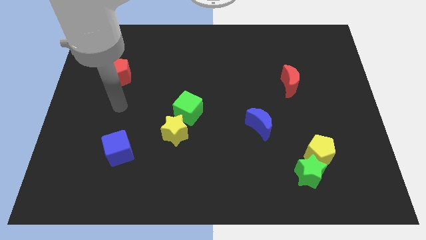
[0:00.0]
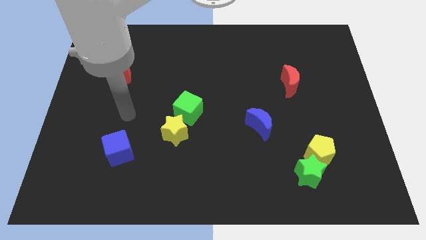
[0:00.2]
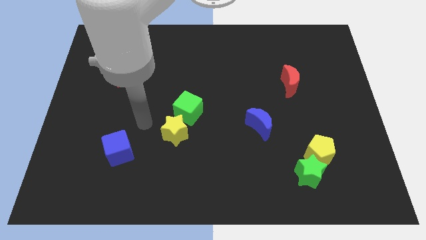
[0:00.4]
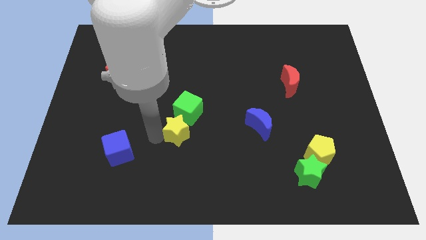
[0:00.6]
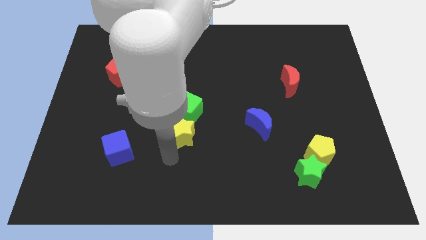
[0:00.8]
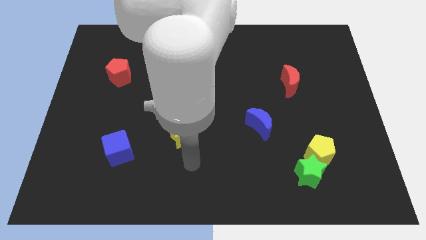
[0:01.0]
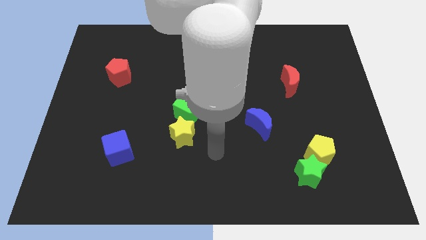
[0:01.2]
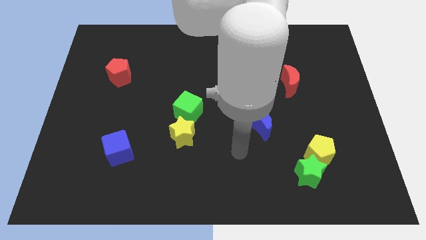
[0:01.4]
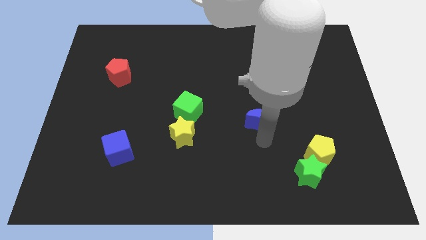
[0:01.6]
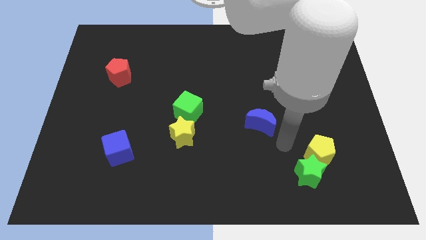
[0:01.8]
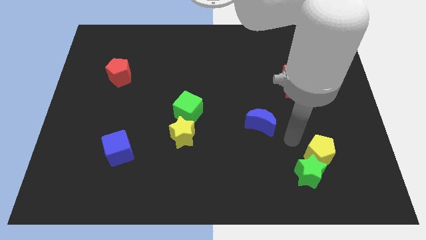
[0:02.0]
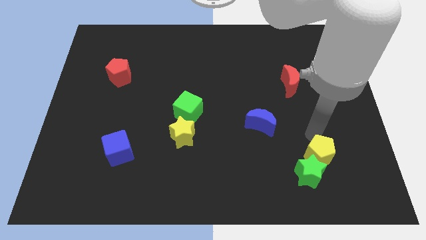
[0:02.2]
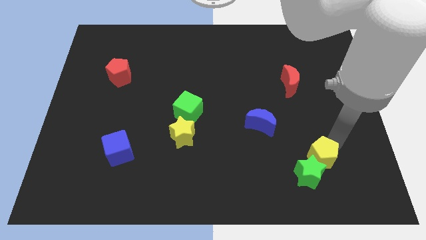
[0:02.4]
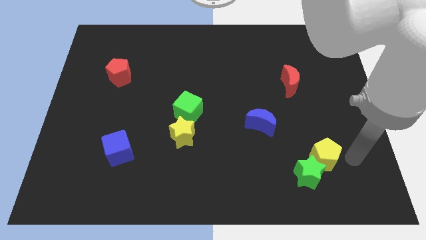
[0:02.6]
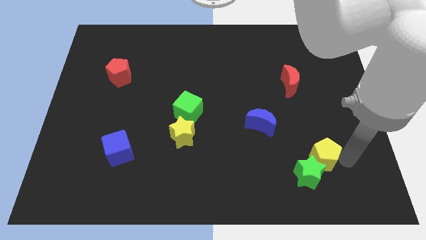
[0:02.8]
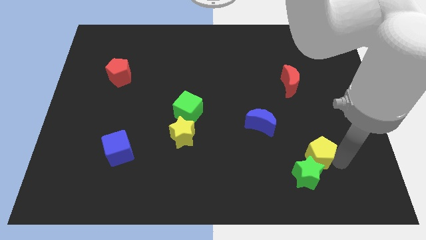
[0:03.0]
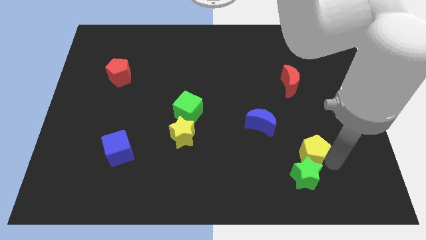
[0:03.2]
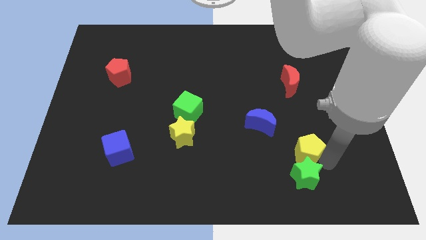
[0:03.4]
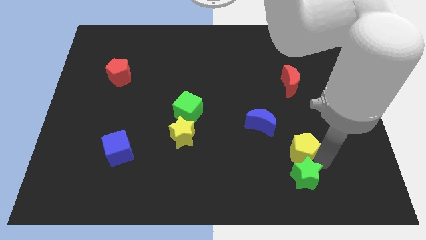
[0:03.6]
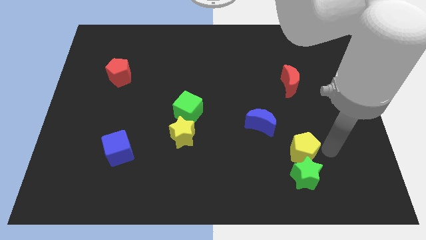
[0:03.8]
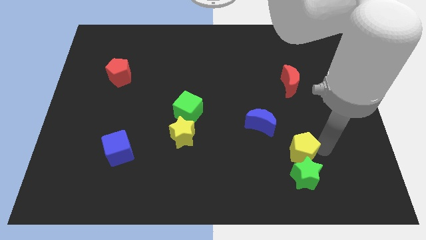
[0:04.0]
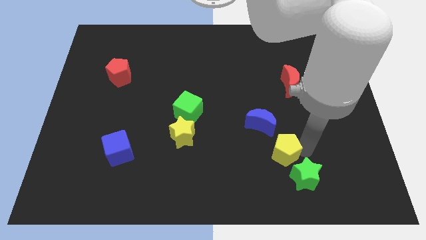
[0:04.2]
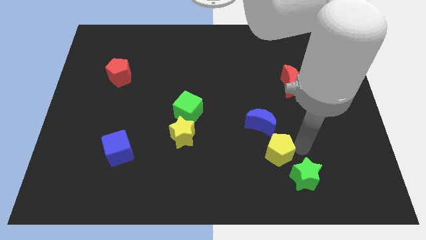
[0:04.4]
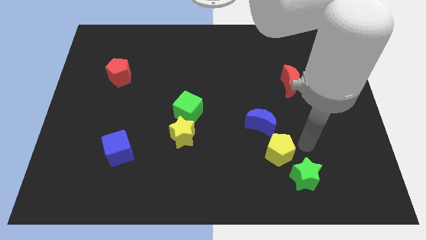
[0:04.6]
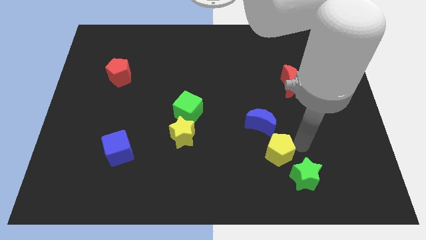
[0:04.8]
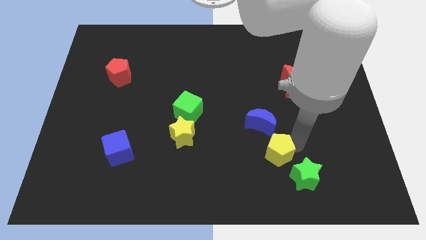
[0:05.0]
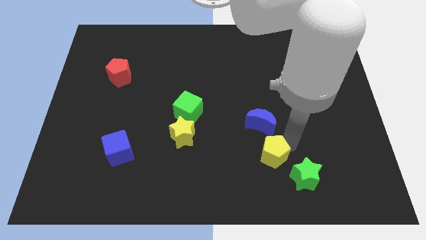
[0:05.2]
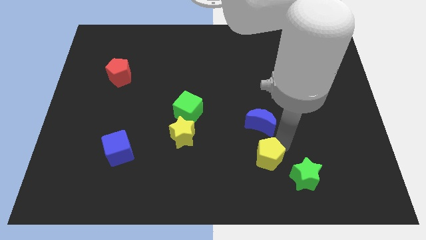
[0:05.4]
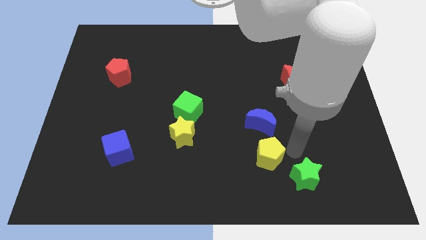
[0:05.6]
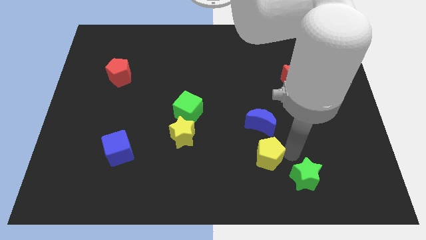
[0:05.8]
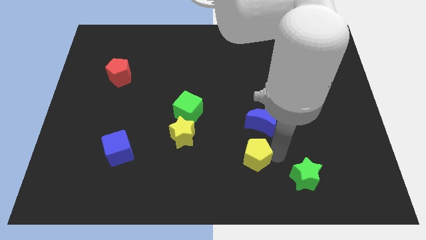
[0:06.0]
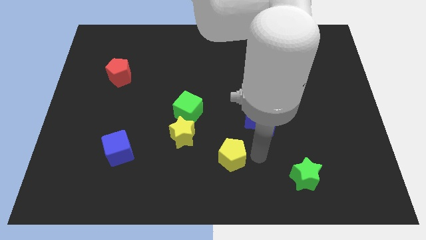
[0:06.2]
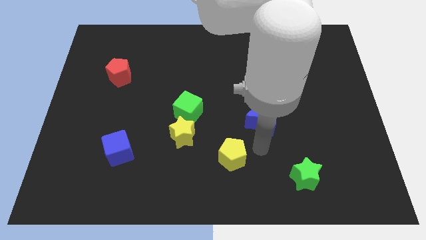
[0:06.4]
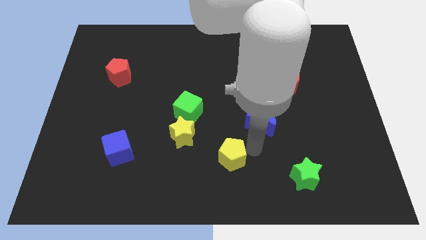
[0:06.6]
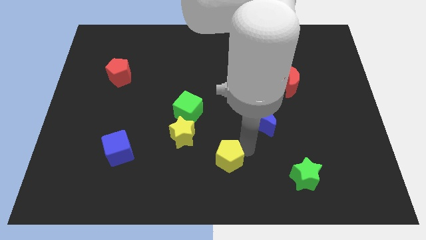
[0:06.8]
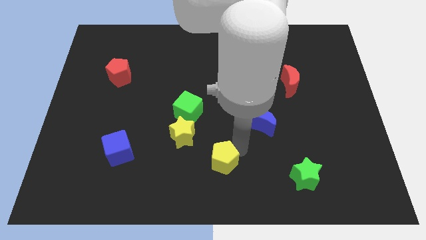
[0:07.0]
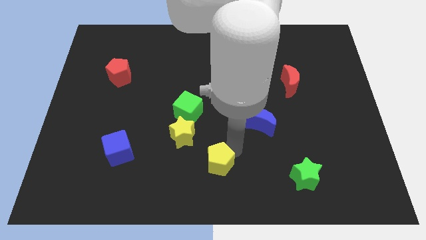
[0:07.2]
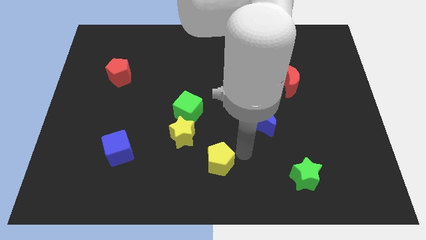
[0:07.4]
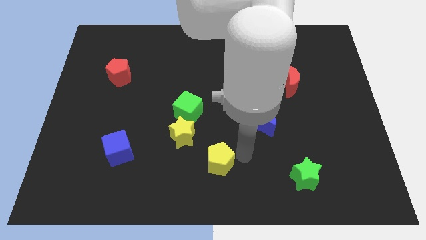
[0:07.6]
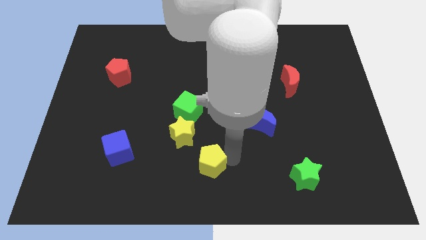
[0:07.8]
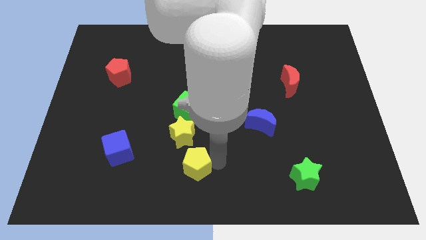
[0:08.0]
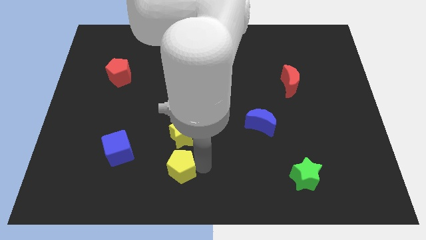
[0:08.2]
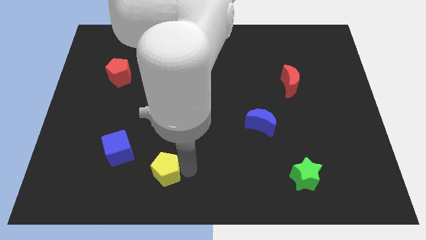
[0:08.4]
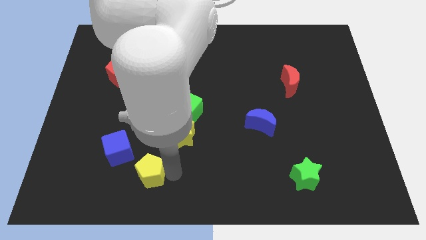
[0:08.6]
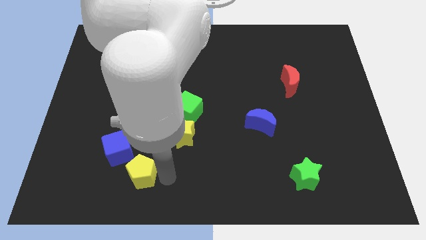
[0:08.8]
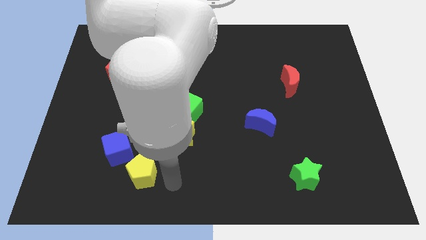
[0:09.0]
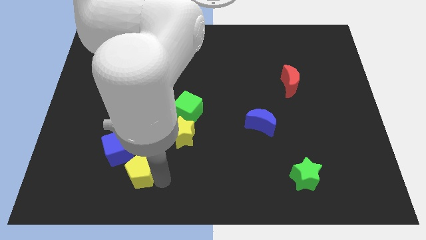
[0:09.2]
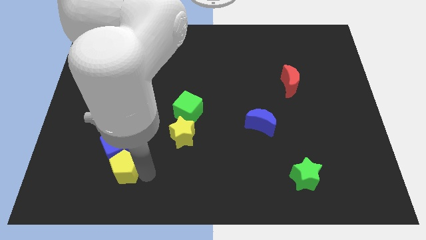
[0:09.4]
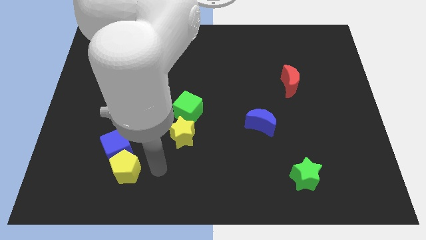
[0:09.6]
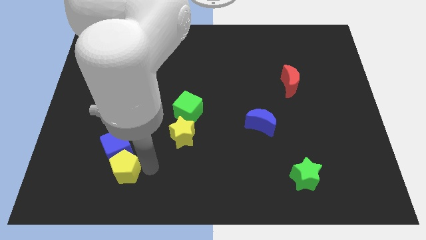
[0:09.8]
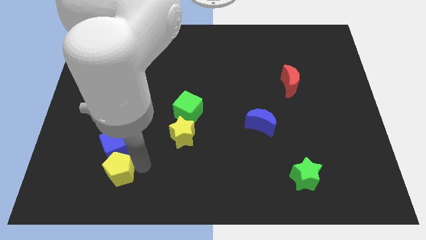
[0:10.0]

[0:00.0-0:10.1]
push the yellow pentagon to the bottom left side of the blue cube

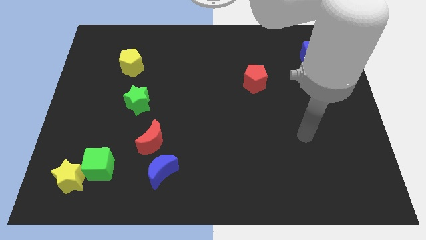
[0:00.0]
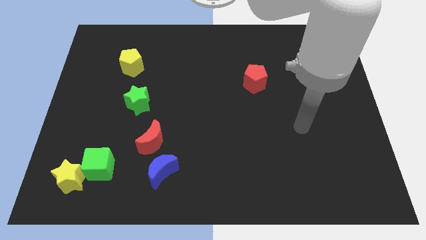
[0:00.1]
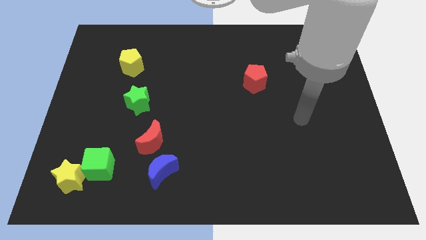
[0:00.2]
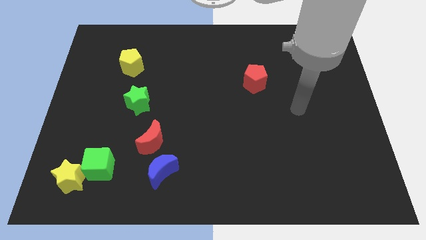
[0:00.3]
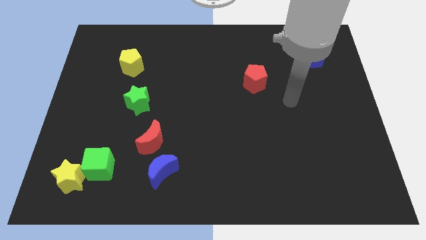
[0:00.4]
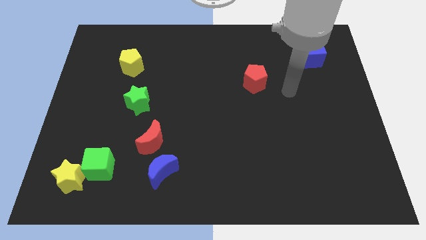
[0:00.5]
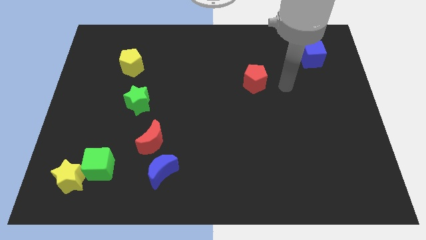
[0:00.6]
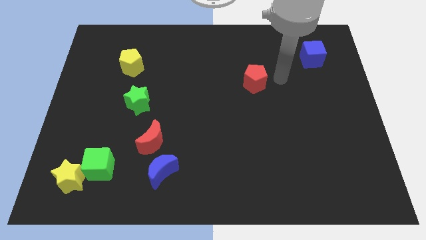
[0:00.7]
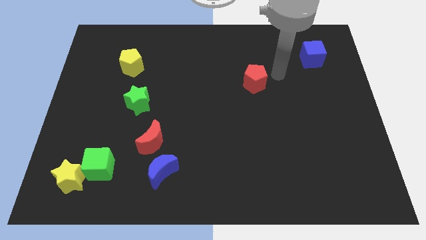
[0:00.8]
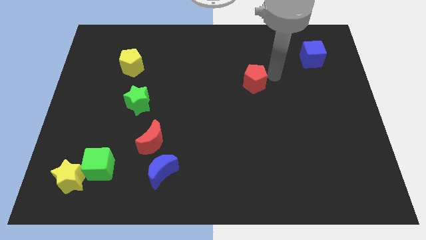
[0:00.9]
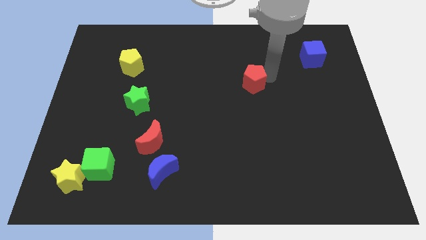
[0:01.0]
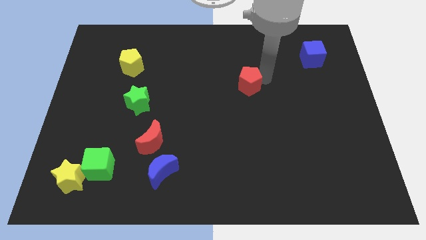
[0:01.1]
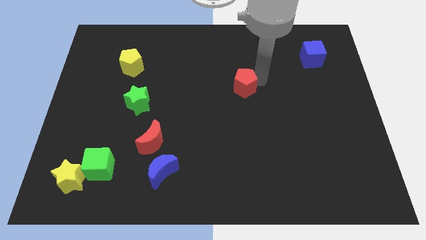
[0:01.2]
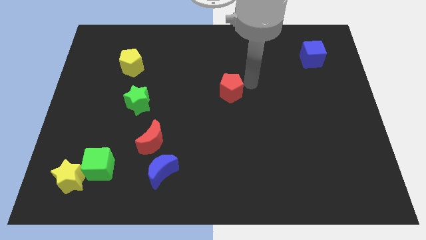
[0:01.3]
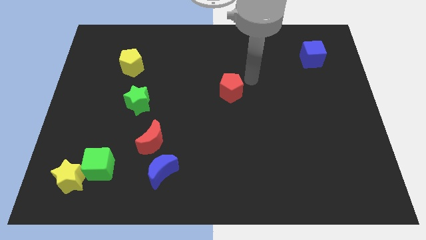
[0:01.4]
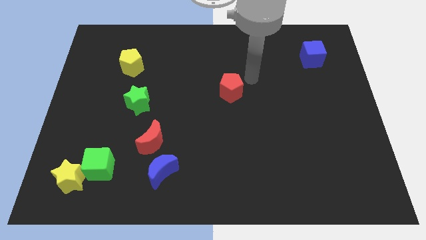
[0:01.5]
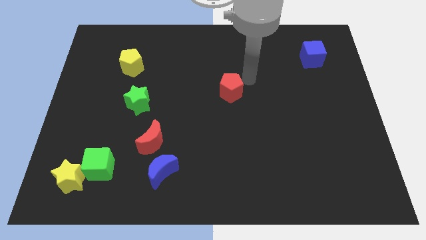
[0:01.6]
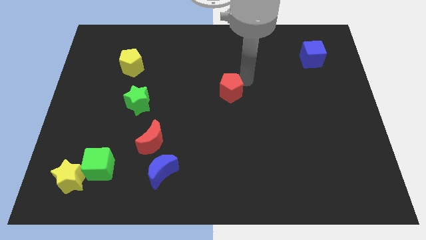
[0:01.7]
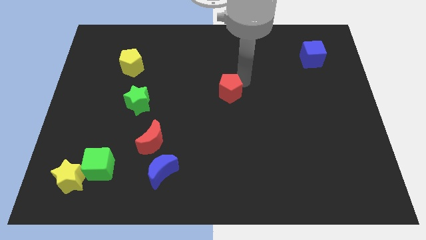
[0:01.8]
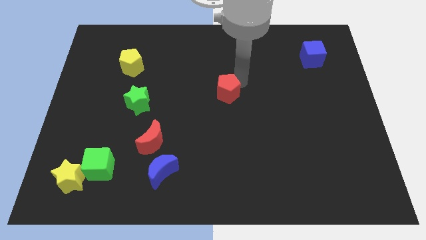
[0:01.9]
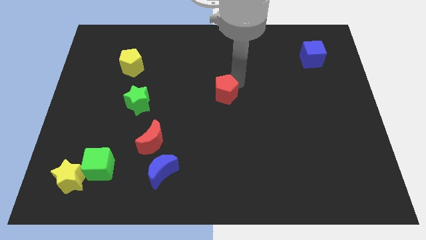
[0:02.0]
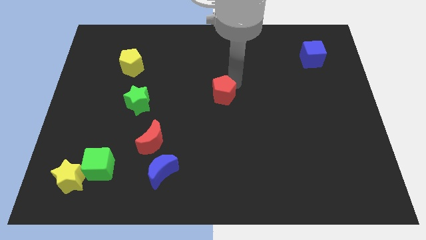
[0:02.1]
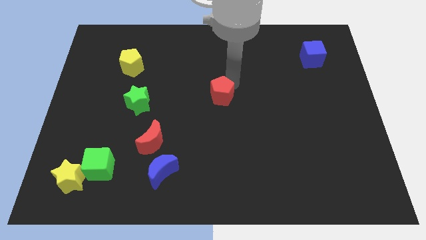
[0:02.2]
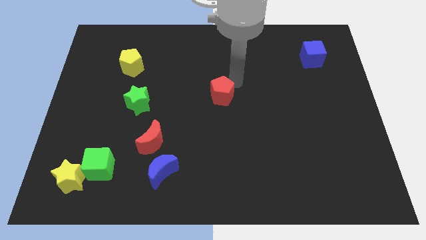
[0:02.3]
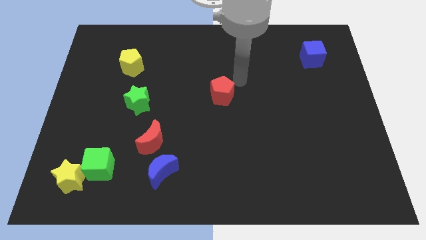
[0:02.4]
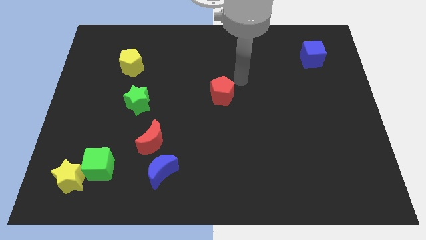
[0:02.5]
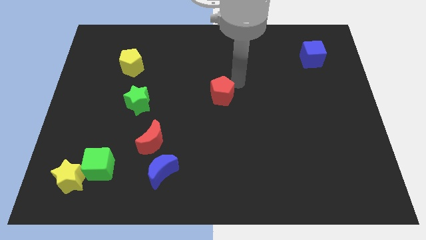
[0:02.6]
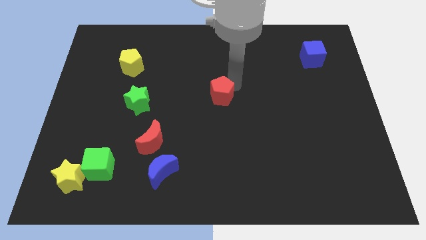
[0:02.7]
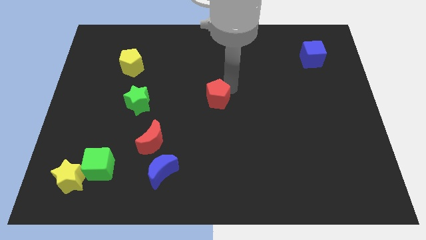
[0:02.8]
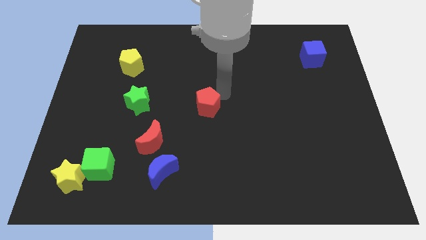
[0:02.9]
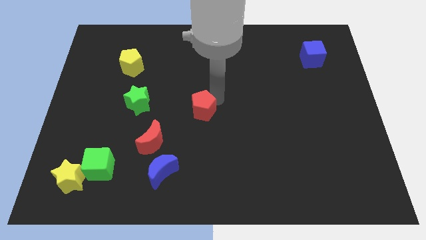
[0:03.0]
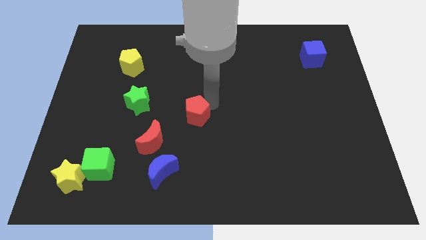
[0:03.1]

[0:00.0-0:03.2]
slide the red pentagon to the top right of the red moon
